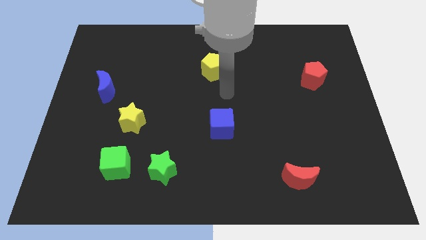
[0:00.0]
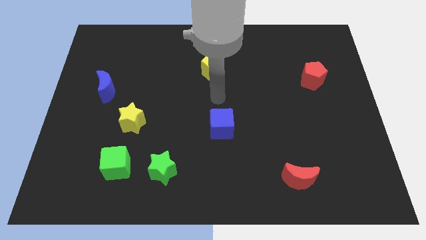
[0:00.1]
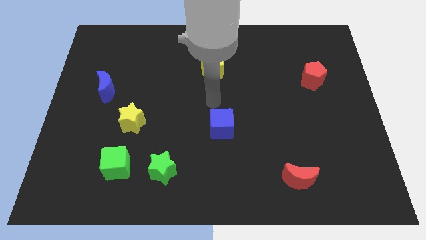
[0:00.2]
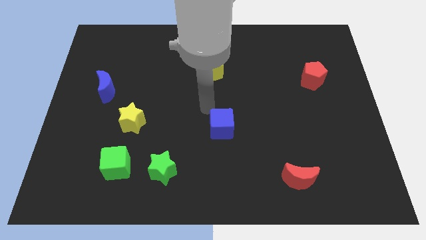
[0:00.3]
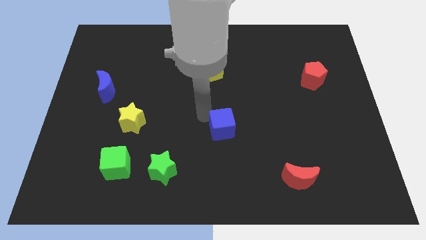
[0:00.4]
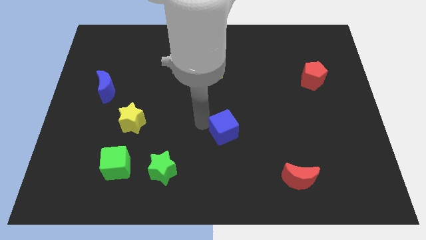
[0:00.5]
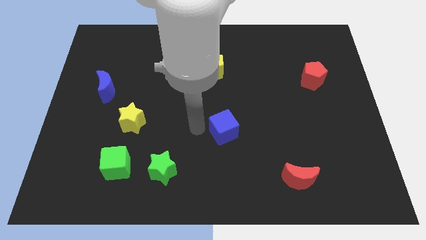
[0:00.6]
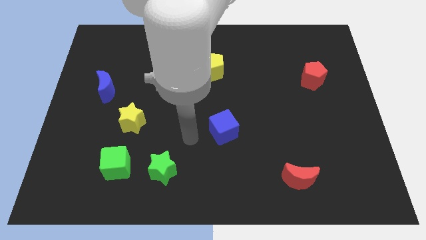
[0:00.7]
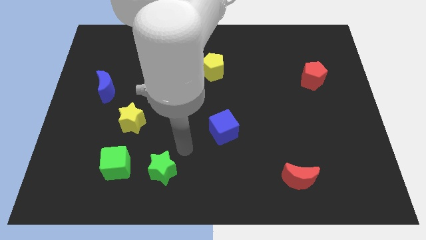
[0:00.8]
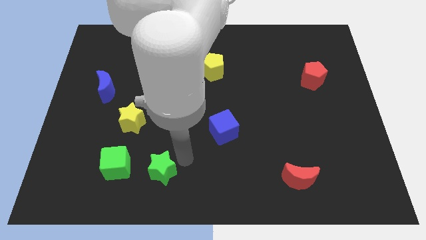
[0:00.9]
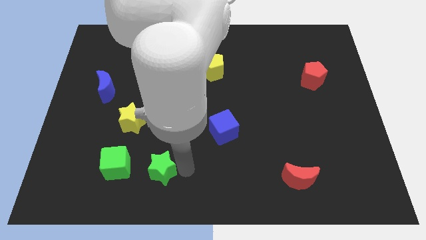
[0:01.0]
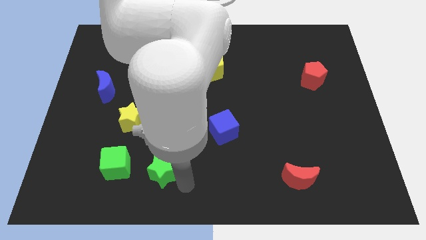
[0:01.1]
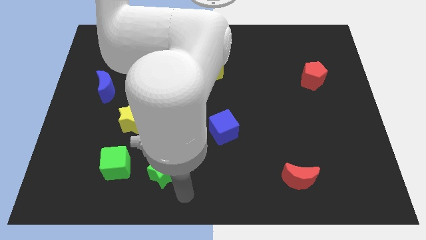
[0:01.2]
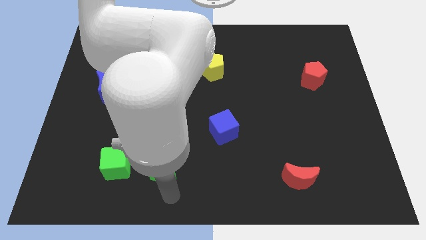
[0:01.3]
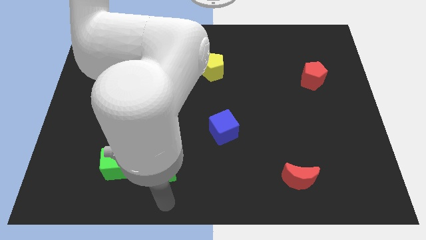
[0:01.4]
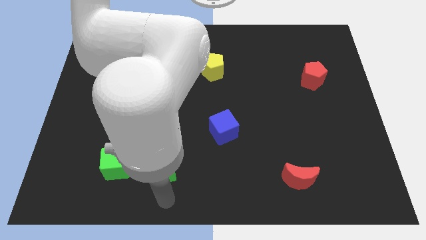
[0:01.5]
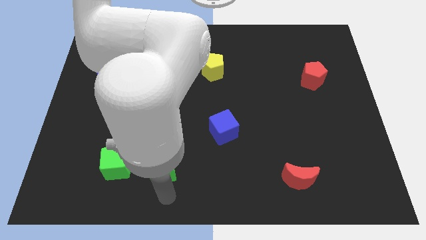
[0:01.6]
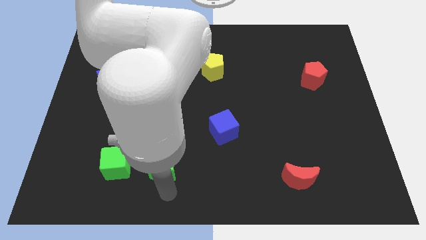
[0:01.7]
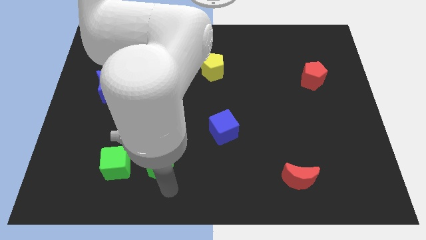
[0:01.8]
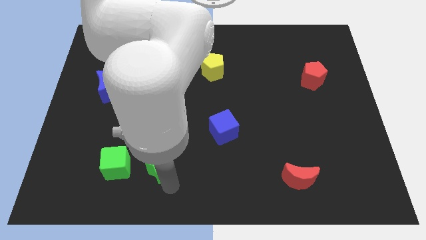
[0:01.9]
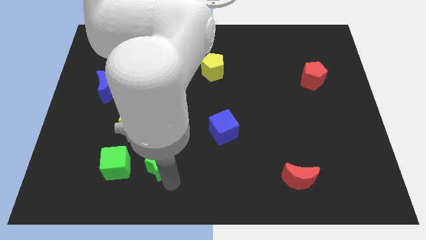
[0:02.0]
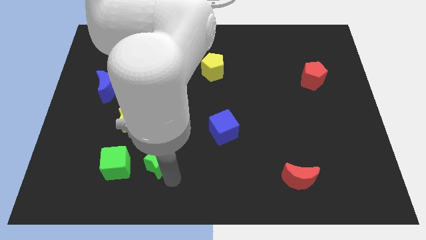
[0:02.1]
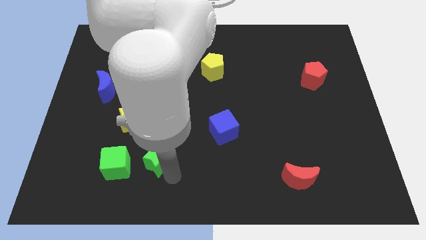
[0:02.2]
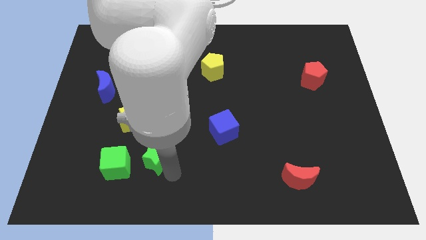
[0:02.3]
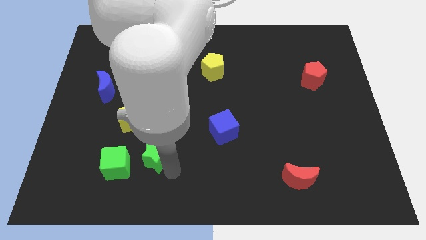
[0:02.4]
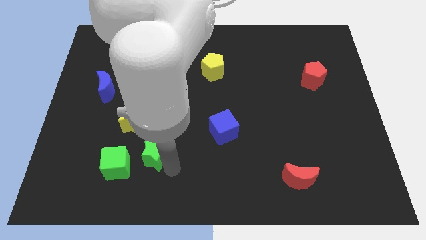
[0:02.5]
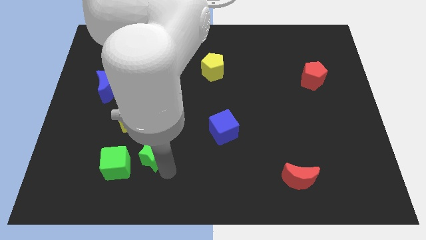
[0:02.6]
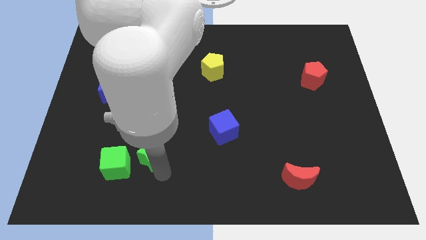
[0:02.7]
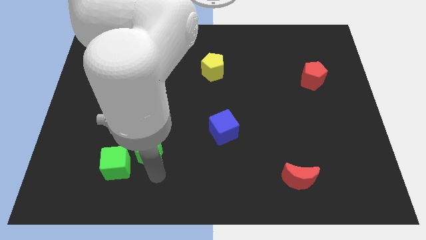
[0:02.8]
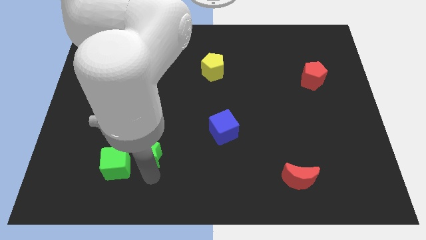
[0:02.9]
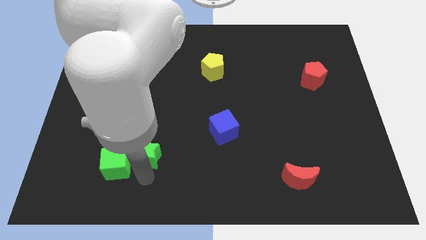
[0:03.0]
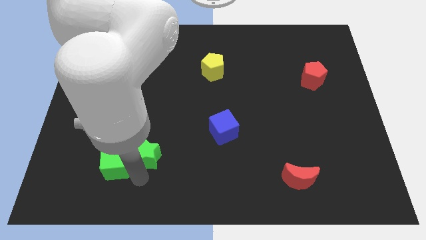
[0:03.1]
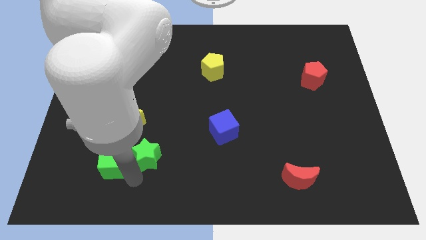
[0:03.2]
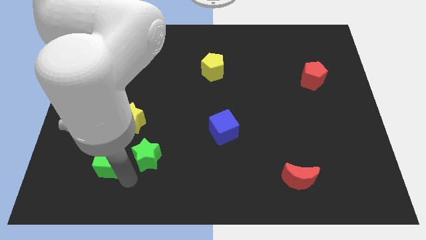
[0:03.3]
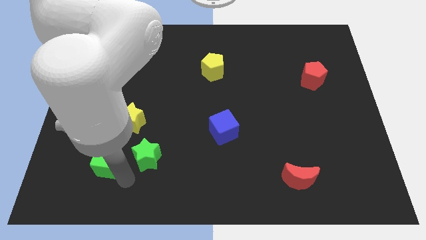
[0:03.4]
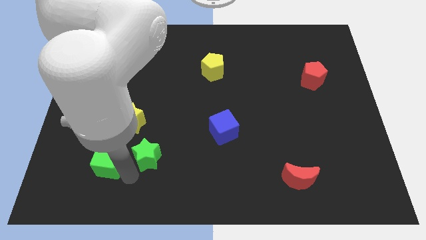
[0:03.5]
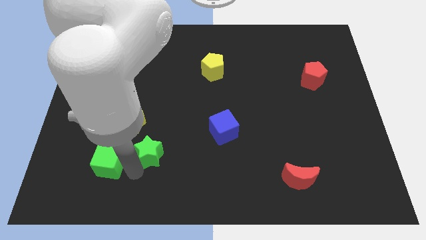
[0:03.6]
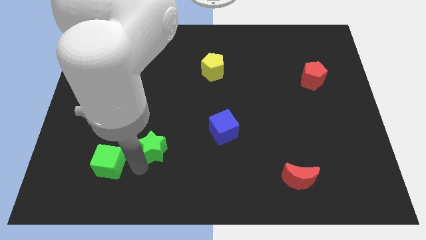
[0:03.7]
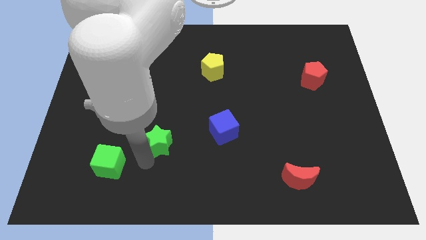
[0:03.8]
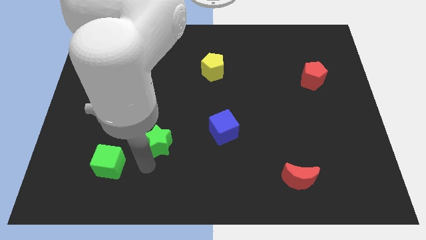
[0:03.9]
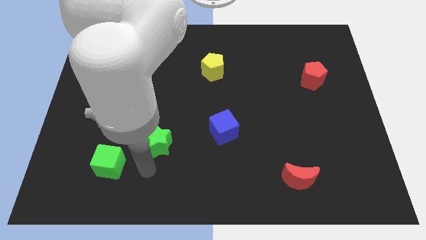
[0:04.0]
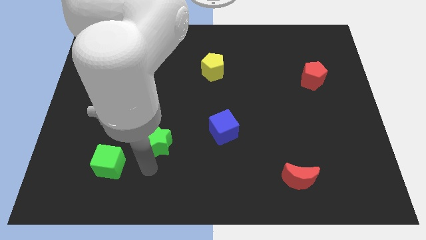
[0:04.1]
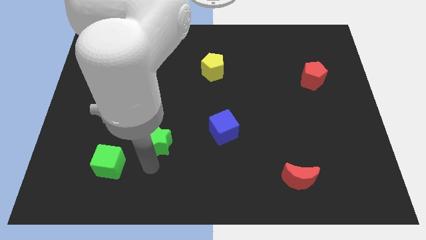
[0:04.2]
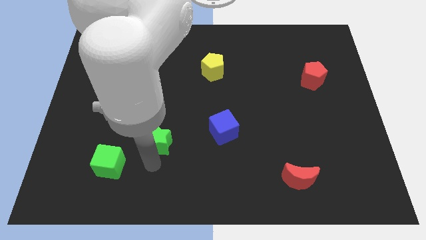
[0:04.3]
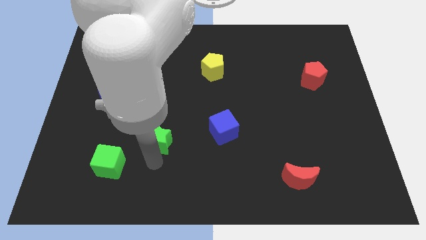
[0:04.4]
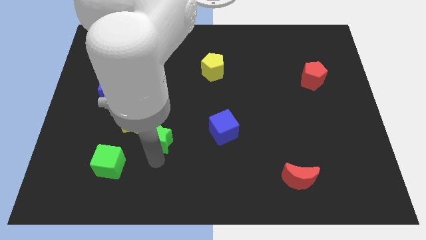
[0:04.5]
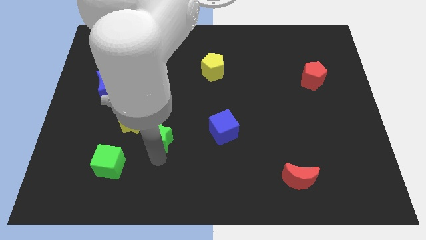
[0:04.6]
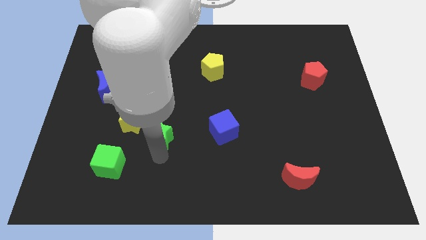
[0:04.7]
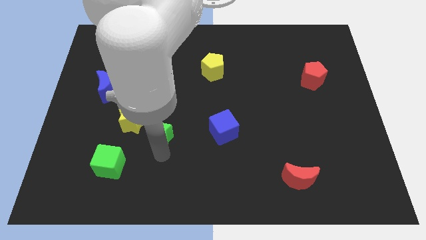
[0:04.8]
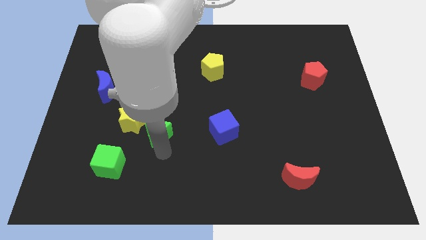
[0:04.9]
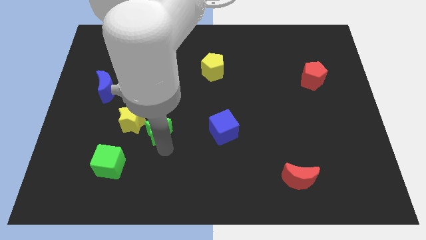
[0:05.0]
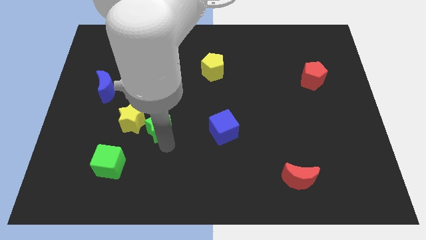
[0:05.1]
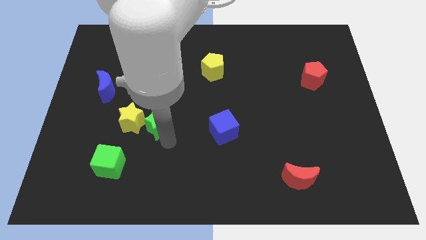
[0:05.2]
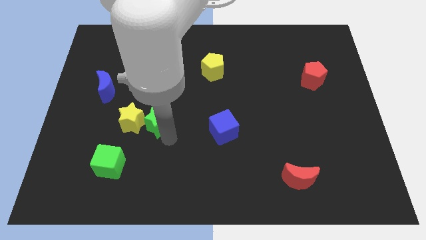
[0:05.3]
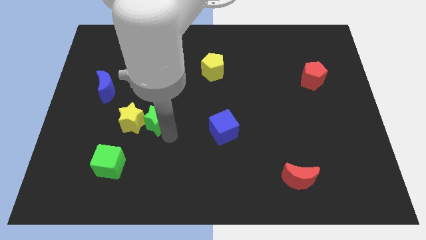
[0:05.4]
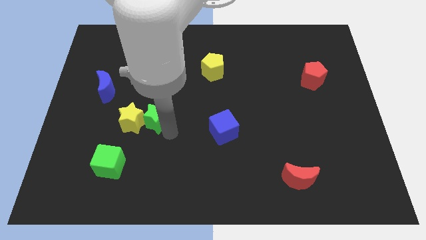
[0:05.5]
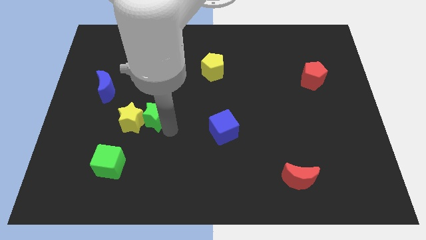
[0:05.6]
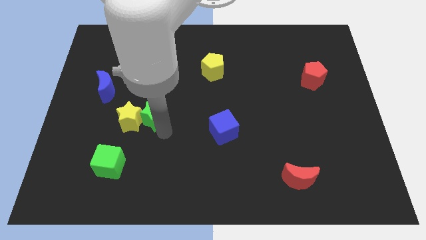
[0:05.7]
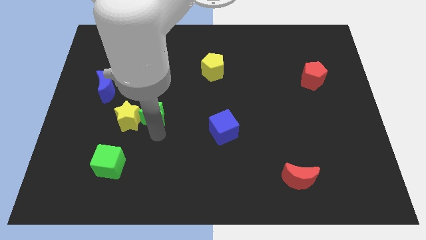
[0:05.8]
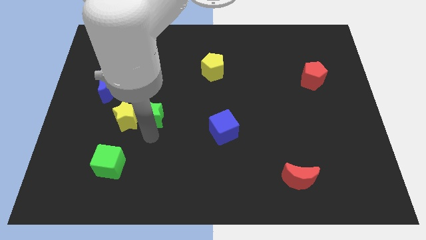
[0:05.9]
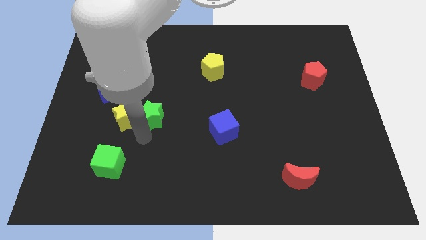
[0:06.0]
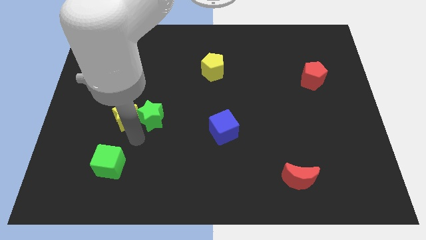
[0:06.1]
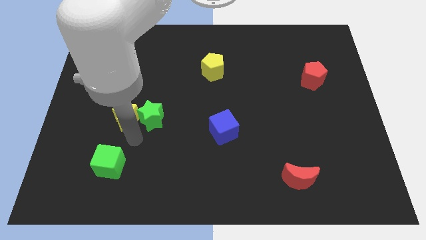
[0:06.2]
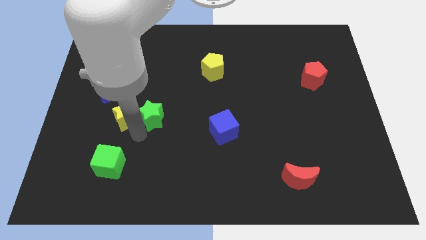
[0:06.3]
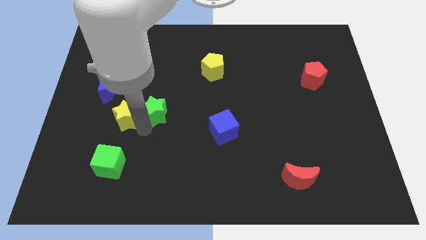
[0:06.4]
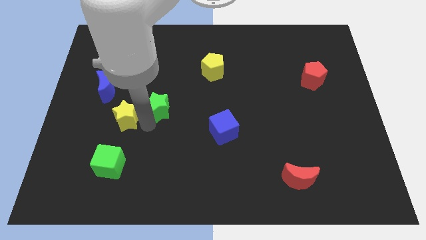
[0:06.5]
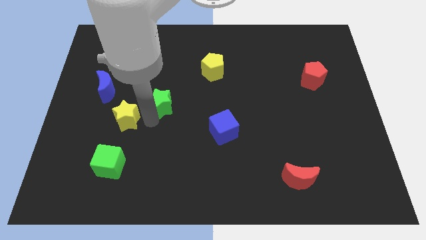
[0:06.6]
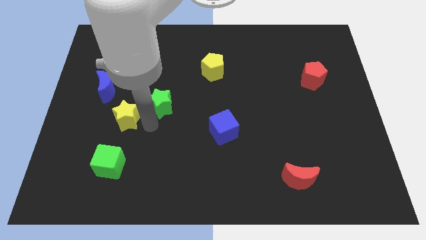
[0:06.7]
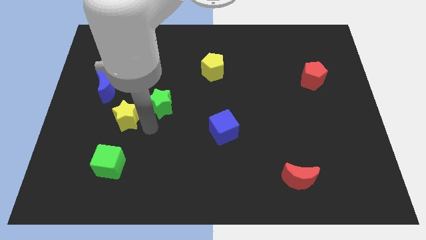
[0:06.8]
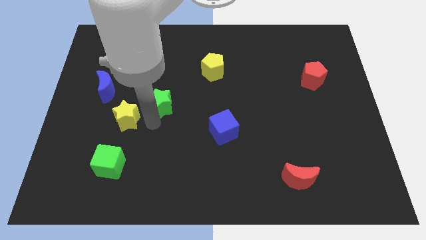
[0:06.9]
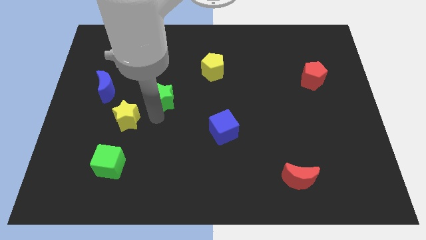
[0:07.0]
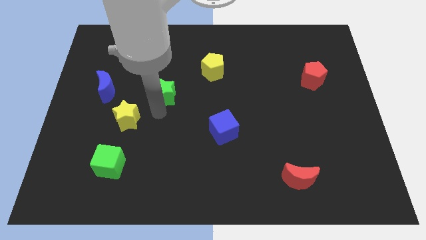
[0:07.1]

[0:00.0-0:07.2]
move the green star upwards

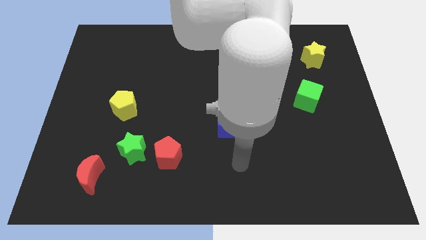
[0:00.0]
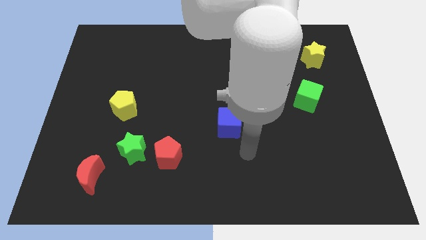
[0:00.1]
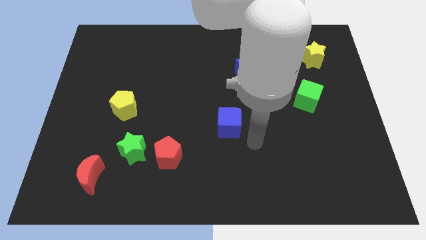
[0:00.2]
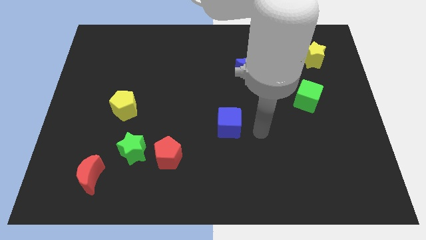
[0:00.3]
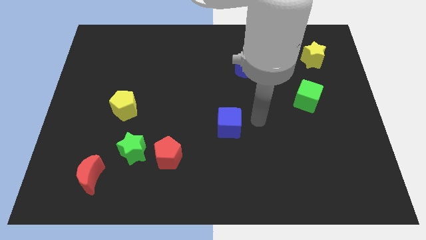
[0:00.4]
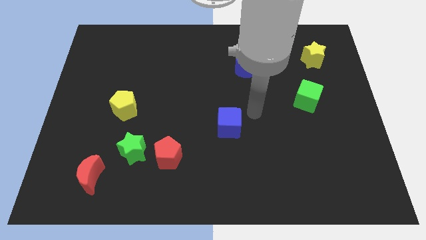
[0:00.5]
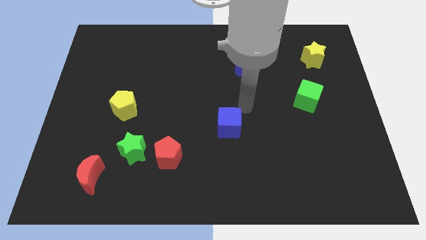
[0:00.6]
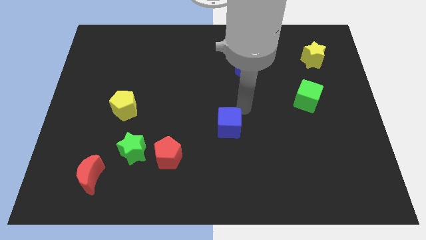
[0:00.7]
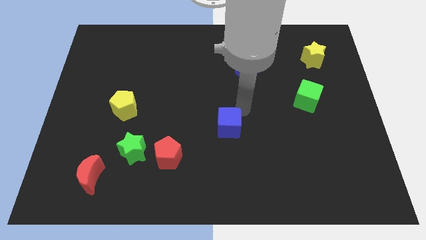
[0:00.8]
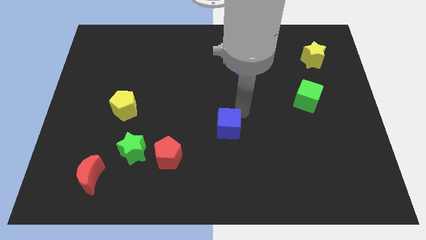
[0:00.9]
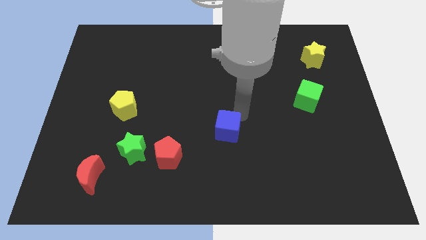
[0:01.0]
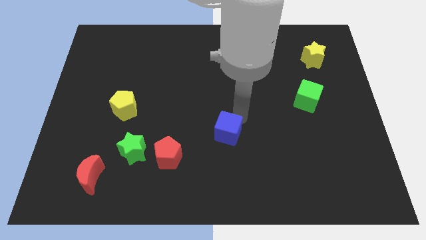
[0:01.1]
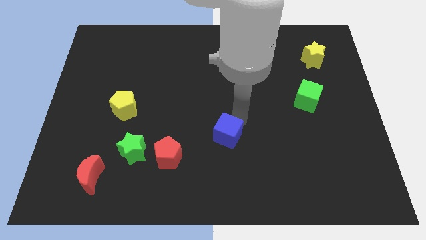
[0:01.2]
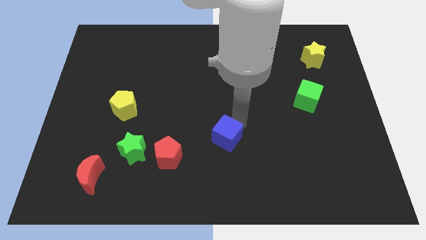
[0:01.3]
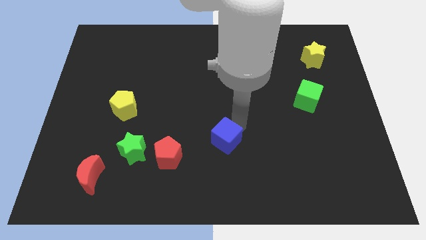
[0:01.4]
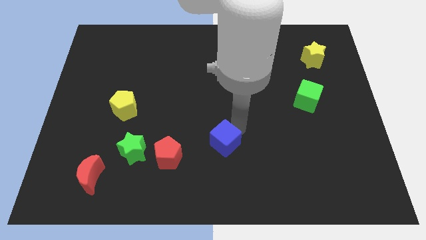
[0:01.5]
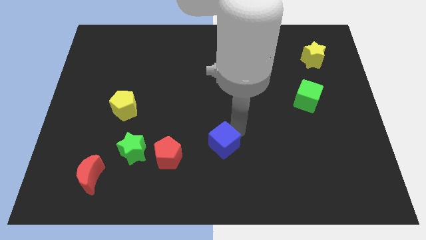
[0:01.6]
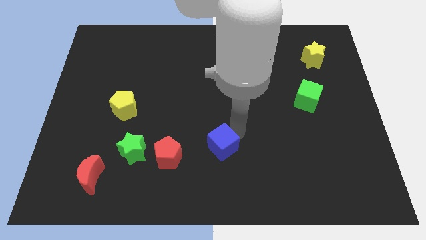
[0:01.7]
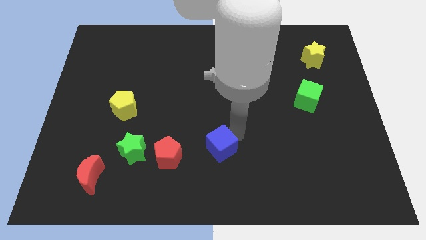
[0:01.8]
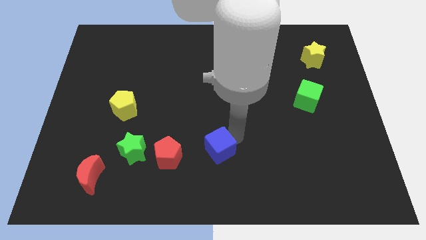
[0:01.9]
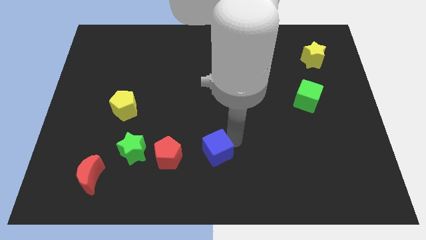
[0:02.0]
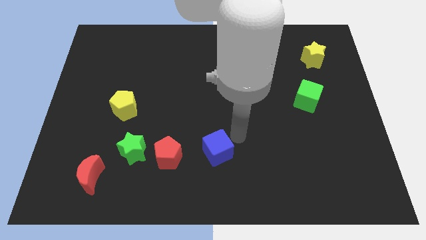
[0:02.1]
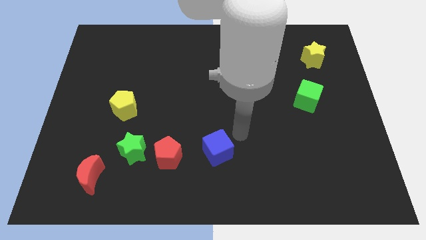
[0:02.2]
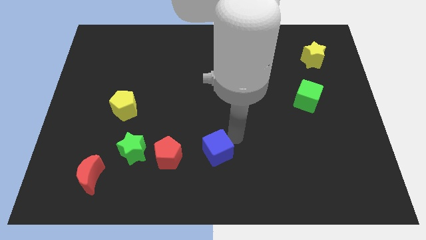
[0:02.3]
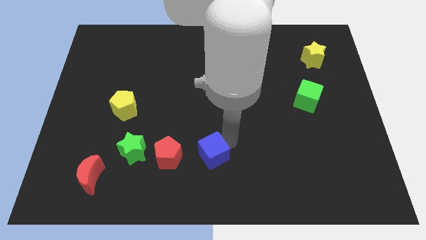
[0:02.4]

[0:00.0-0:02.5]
slide the blue cube a bit down and then left
